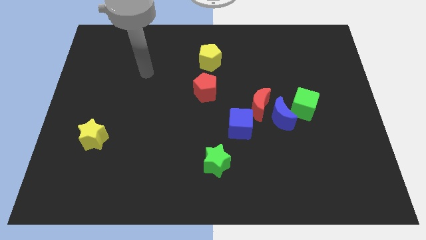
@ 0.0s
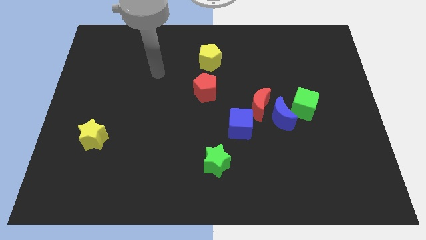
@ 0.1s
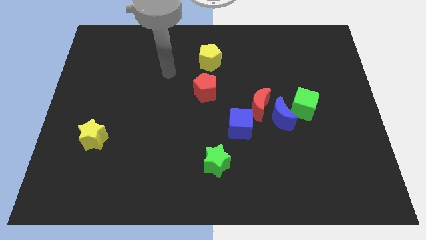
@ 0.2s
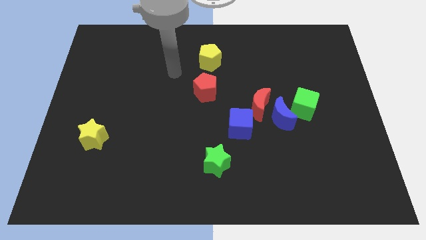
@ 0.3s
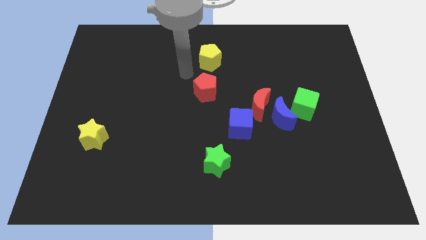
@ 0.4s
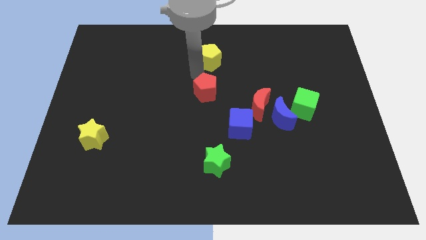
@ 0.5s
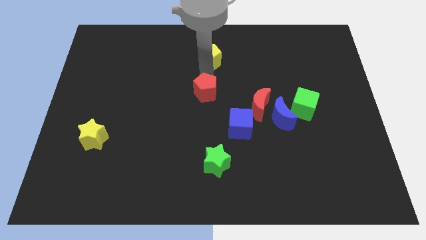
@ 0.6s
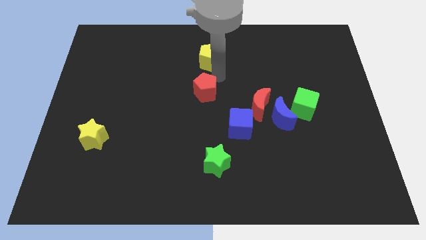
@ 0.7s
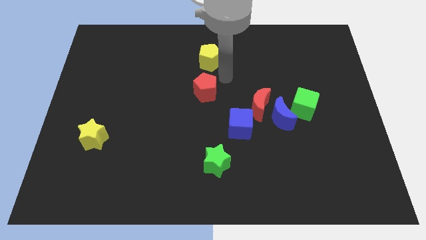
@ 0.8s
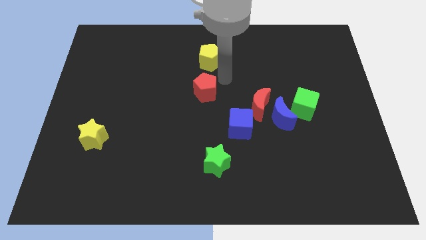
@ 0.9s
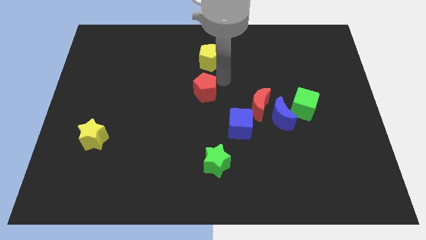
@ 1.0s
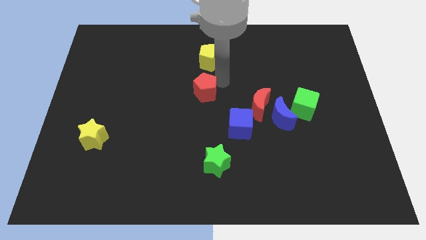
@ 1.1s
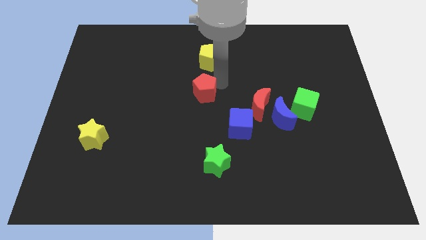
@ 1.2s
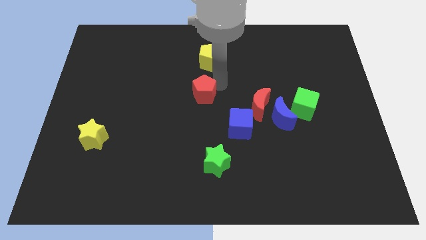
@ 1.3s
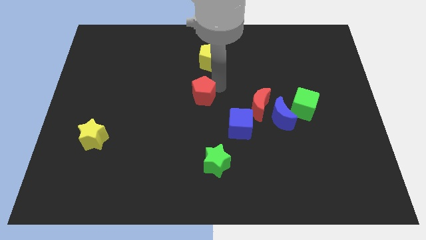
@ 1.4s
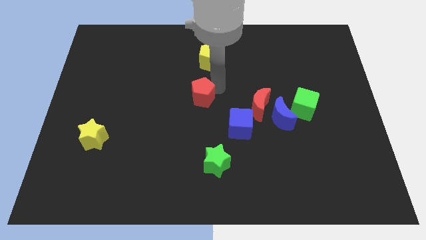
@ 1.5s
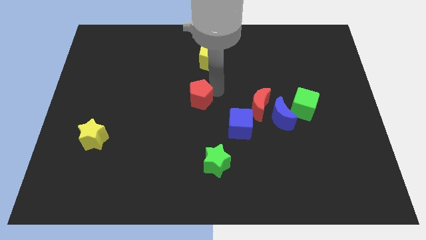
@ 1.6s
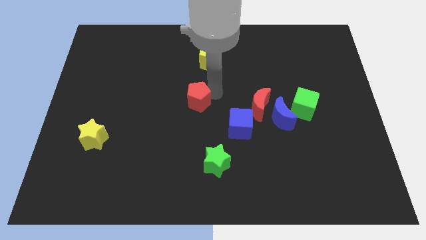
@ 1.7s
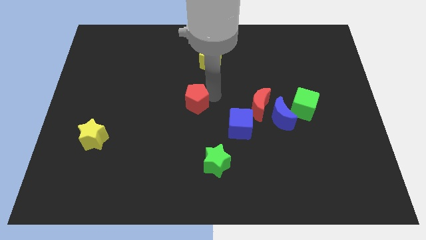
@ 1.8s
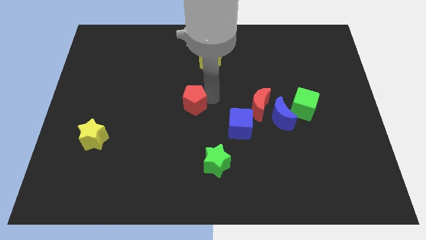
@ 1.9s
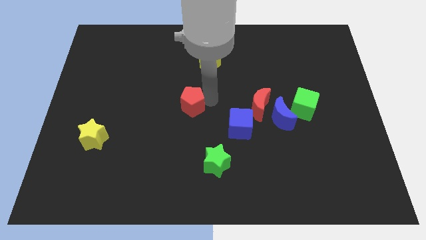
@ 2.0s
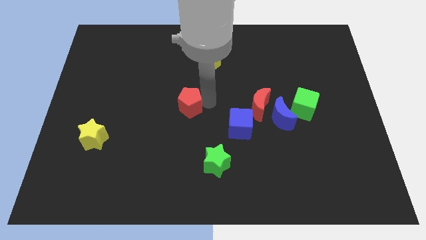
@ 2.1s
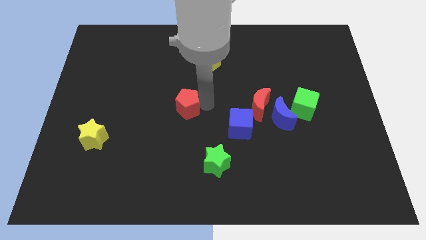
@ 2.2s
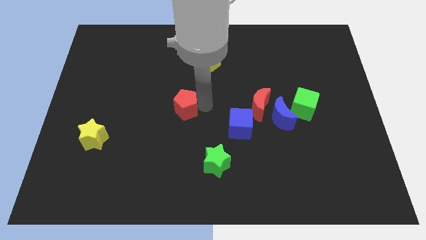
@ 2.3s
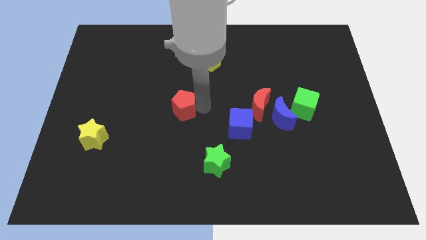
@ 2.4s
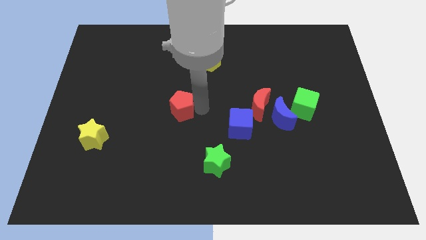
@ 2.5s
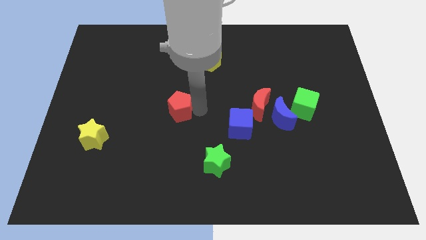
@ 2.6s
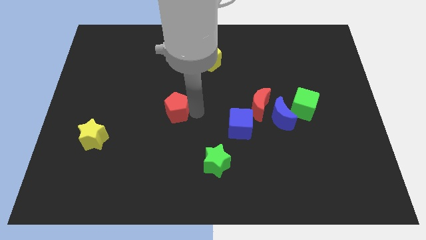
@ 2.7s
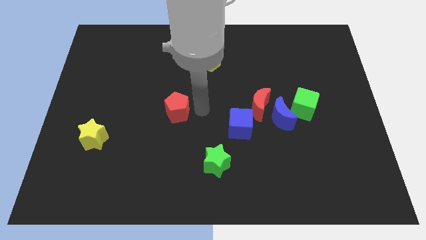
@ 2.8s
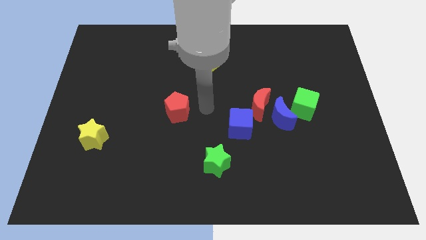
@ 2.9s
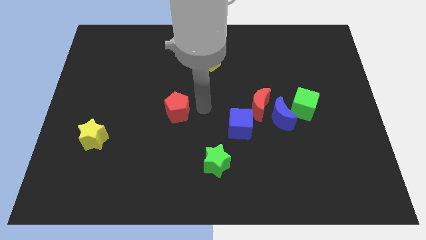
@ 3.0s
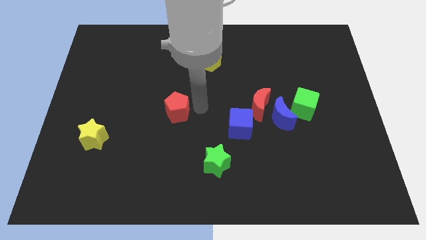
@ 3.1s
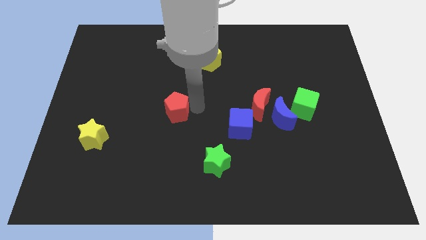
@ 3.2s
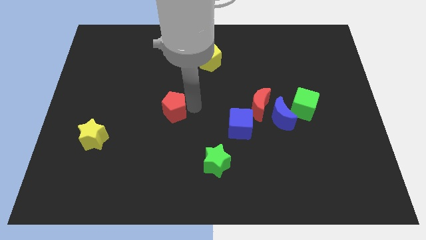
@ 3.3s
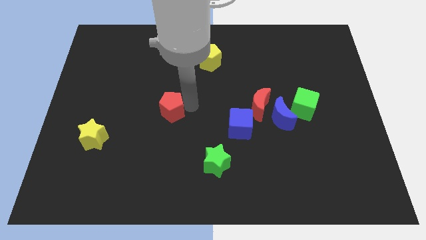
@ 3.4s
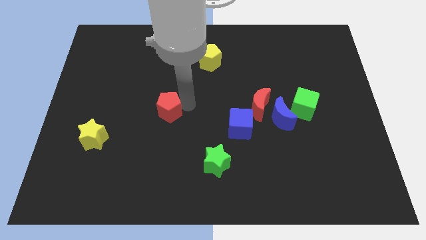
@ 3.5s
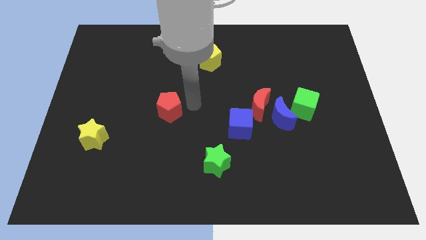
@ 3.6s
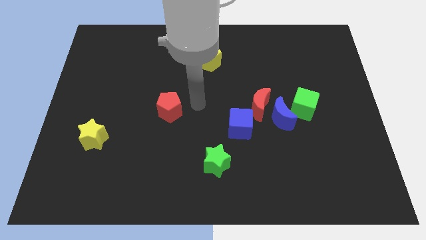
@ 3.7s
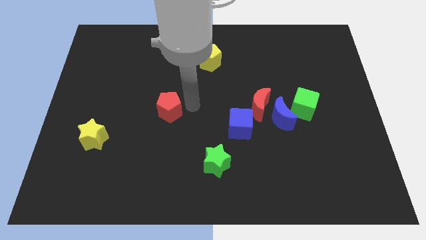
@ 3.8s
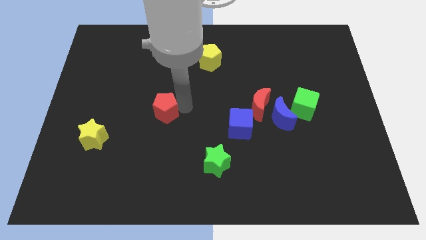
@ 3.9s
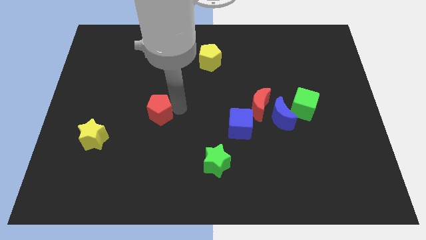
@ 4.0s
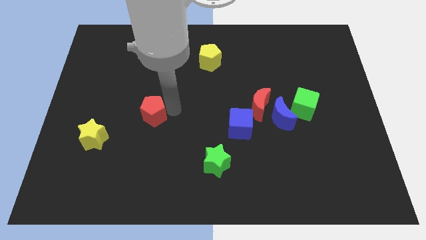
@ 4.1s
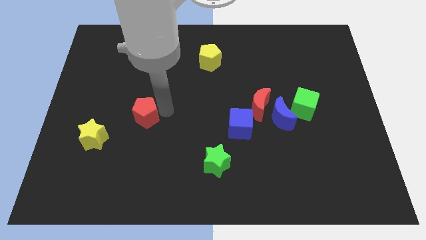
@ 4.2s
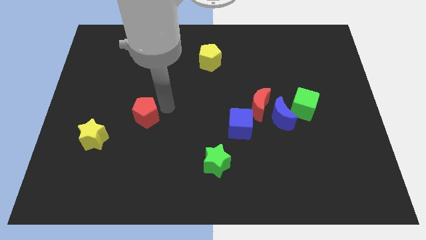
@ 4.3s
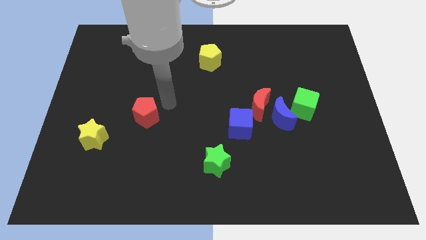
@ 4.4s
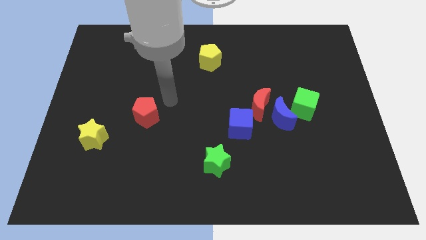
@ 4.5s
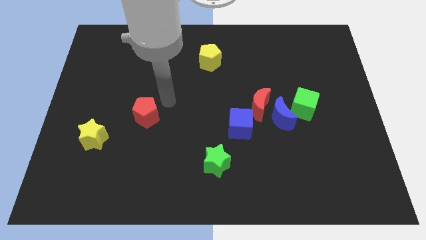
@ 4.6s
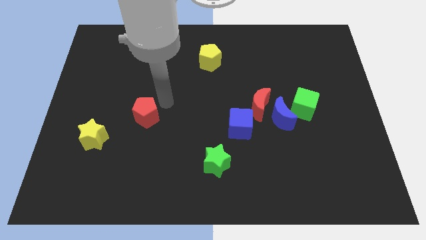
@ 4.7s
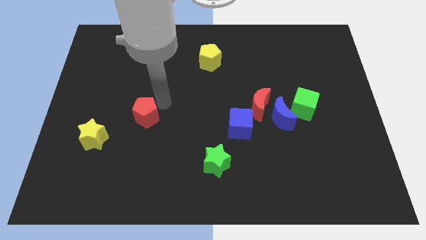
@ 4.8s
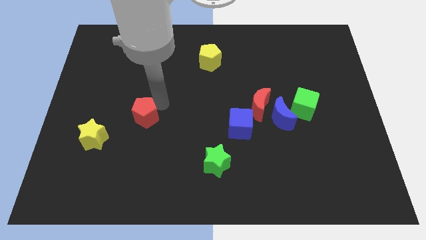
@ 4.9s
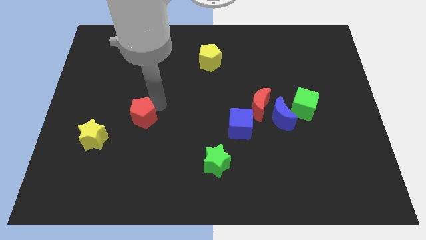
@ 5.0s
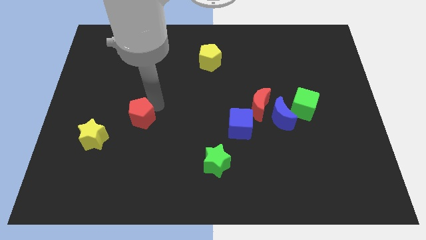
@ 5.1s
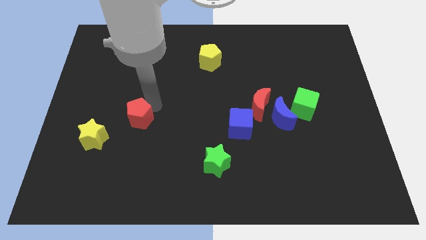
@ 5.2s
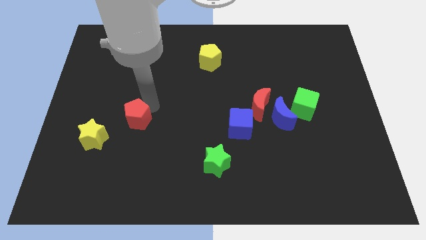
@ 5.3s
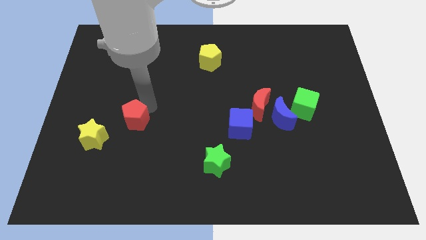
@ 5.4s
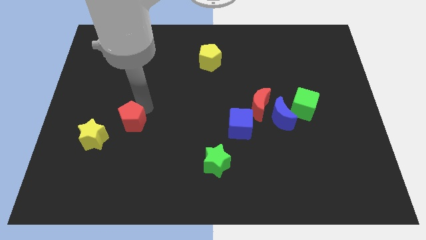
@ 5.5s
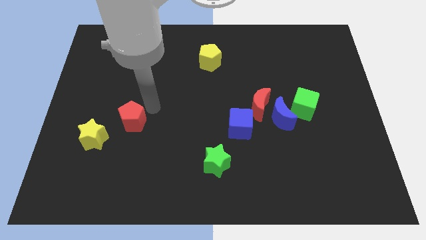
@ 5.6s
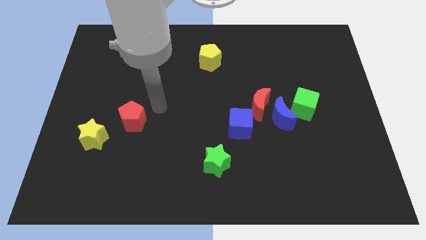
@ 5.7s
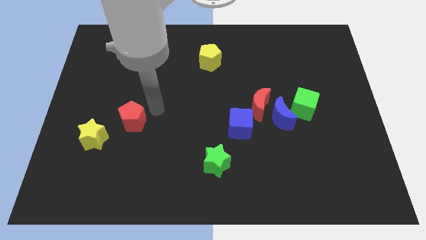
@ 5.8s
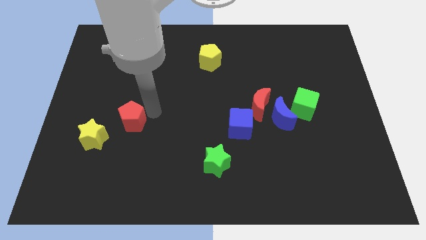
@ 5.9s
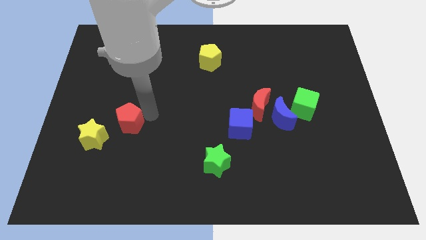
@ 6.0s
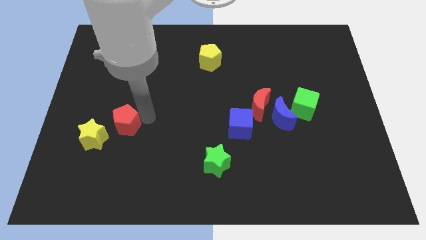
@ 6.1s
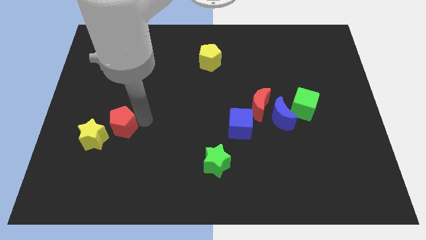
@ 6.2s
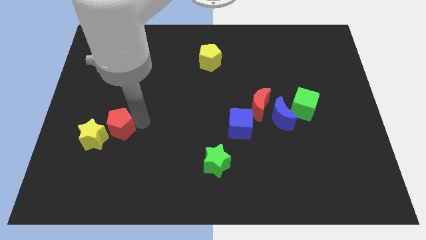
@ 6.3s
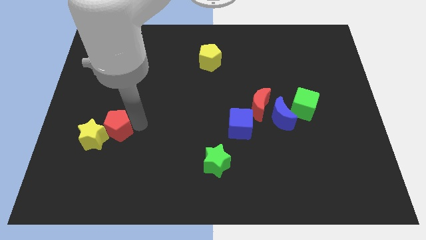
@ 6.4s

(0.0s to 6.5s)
put the red pentagon next to the yellow star

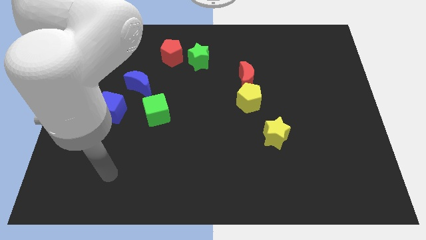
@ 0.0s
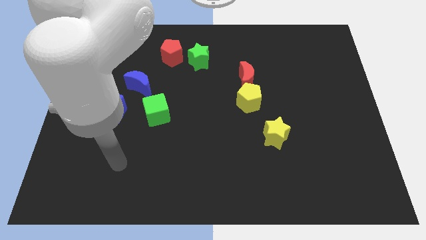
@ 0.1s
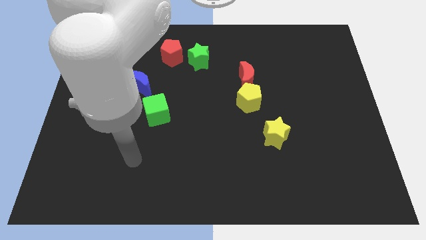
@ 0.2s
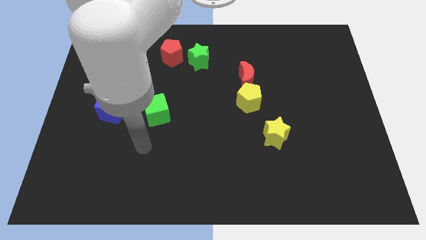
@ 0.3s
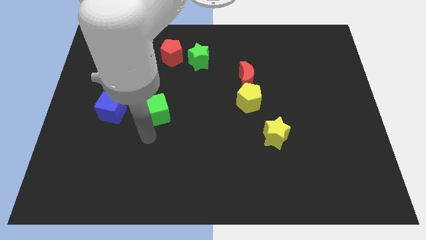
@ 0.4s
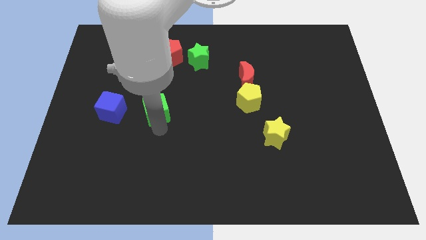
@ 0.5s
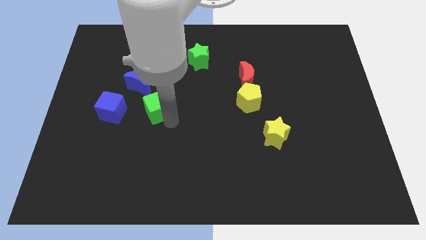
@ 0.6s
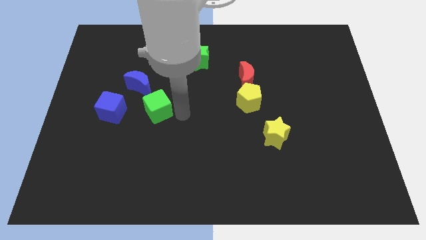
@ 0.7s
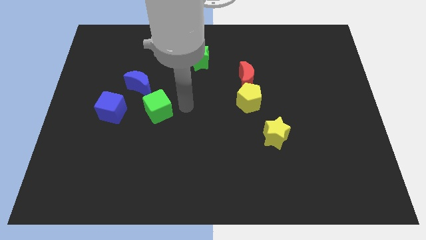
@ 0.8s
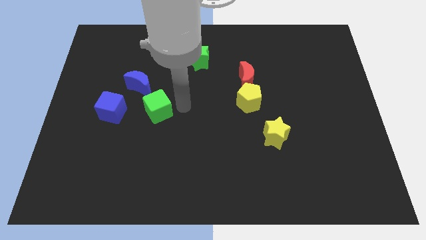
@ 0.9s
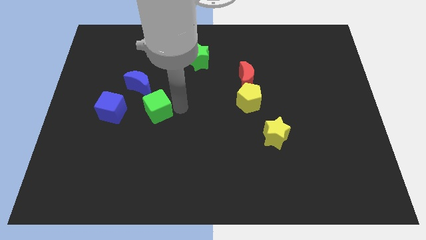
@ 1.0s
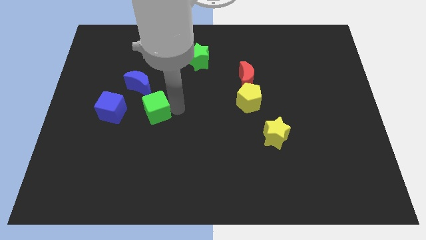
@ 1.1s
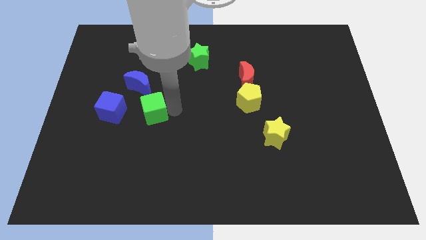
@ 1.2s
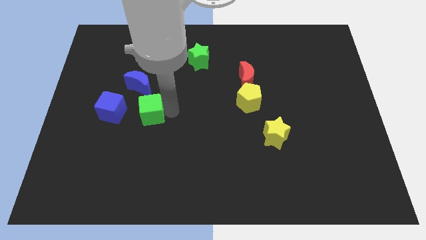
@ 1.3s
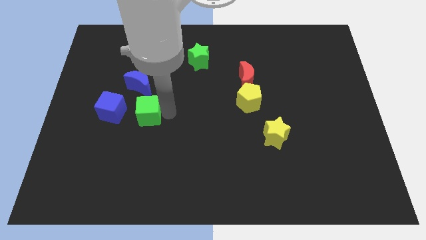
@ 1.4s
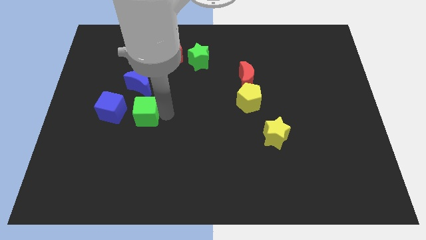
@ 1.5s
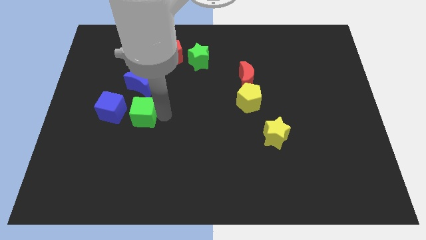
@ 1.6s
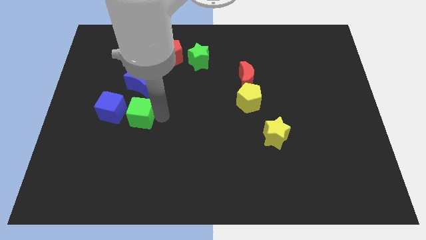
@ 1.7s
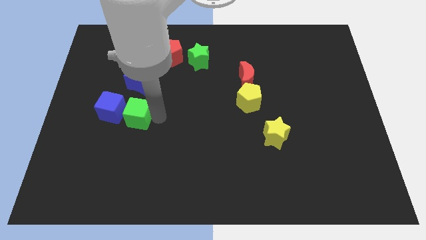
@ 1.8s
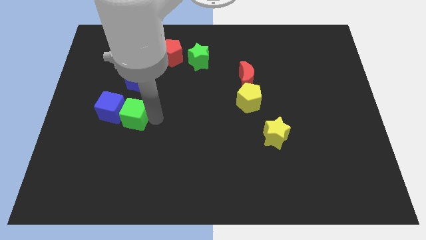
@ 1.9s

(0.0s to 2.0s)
slide the green cube towards the blue cube
